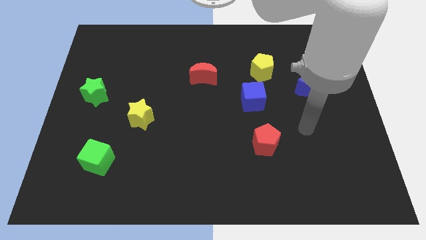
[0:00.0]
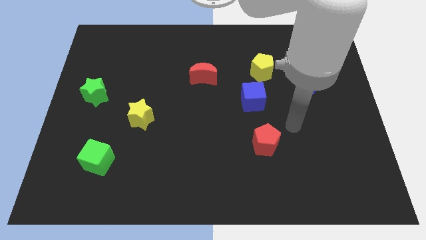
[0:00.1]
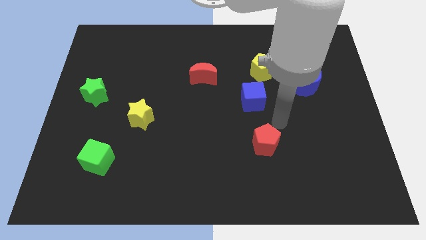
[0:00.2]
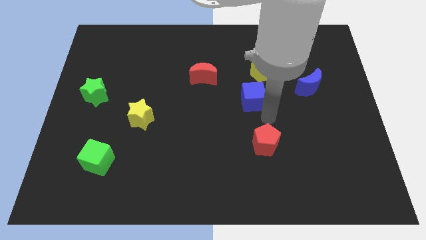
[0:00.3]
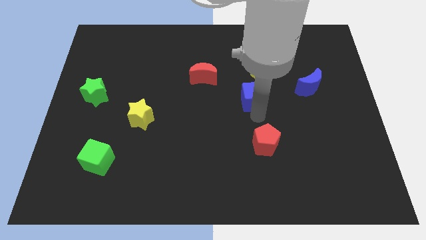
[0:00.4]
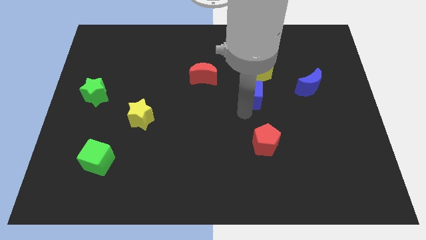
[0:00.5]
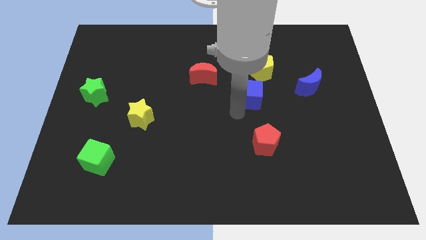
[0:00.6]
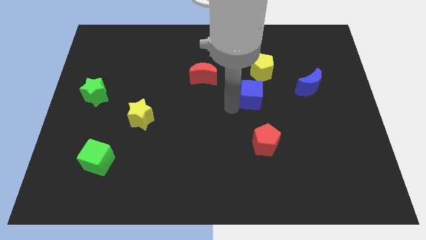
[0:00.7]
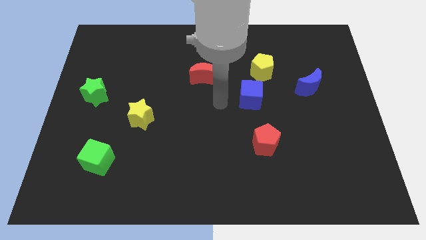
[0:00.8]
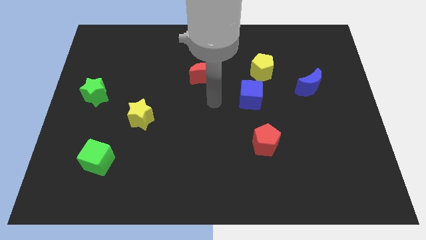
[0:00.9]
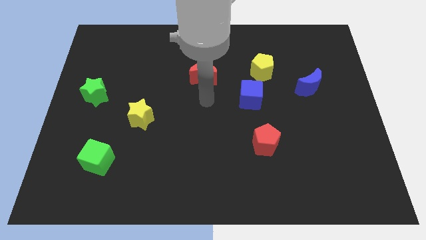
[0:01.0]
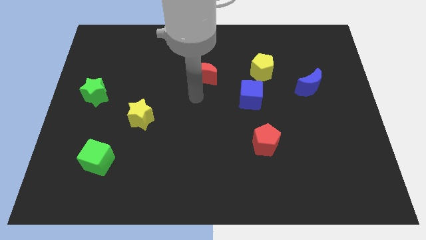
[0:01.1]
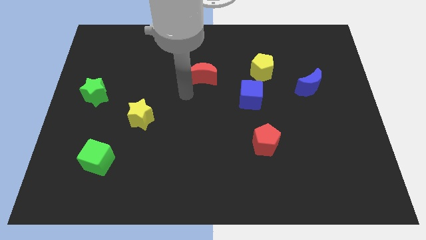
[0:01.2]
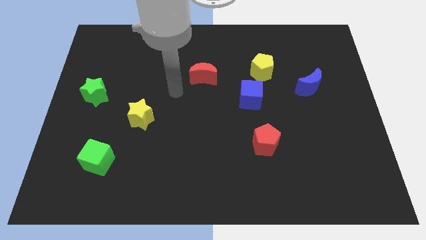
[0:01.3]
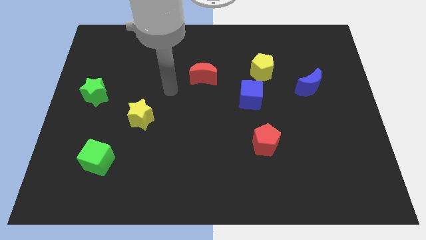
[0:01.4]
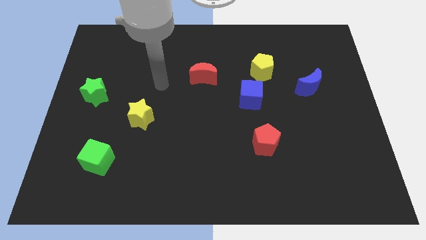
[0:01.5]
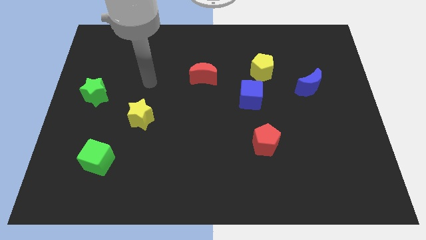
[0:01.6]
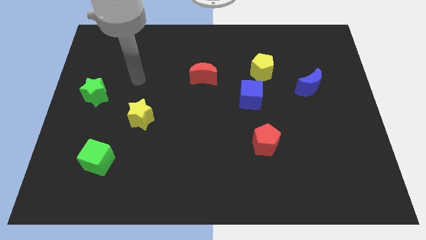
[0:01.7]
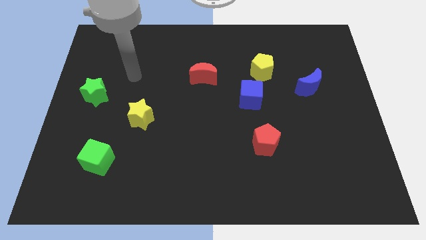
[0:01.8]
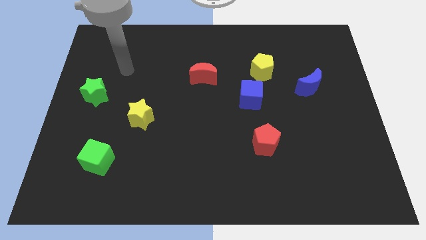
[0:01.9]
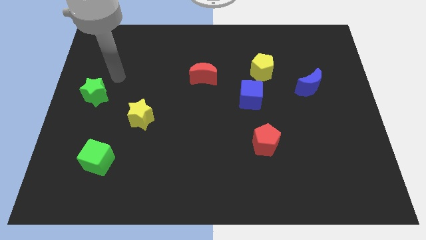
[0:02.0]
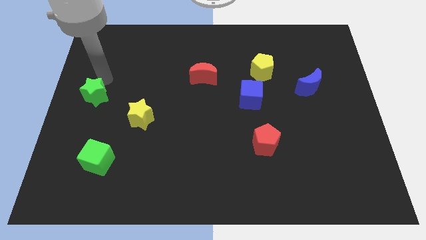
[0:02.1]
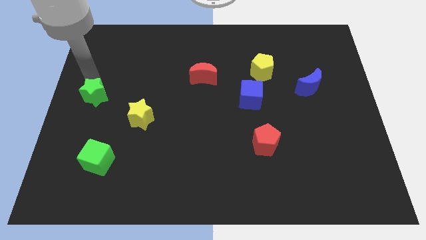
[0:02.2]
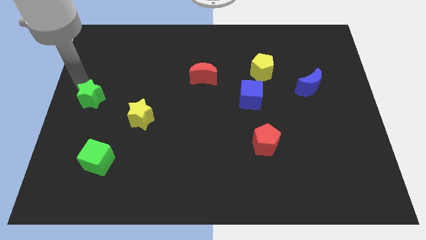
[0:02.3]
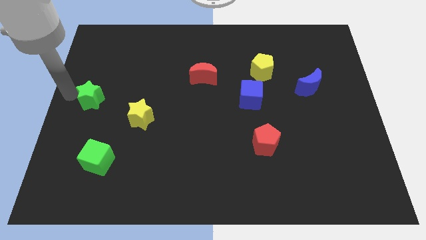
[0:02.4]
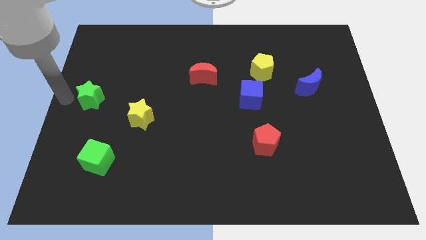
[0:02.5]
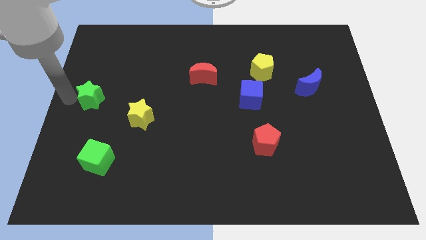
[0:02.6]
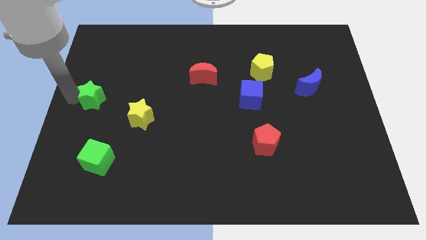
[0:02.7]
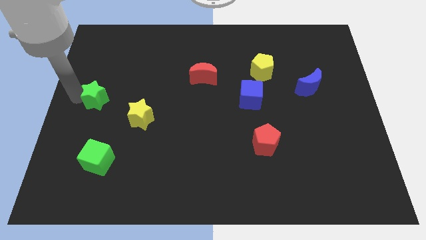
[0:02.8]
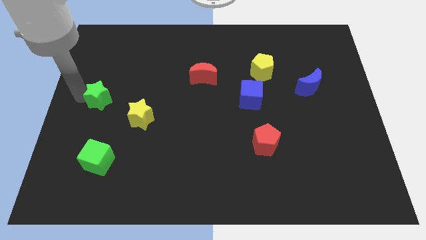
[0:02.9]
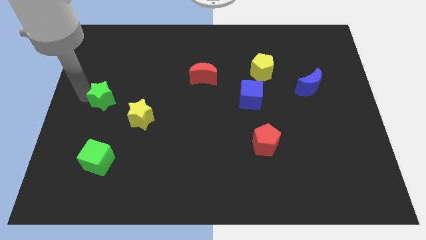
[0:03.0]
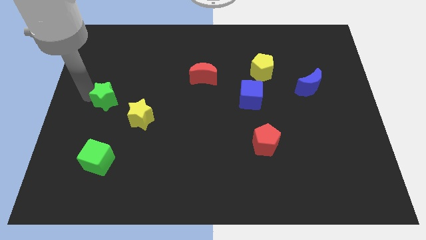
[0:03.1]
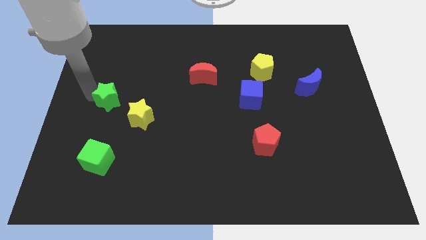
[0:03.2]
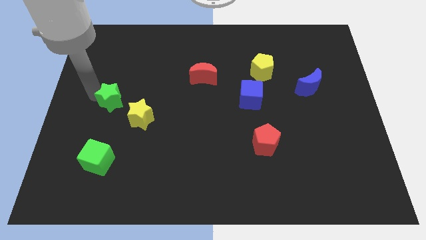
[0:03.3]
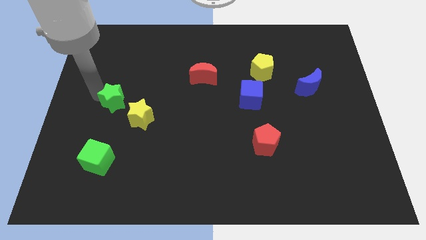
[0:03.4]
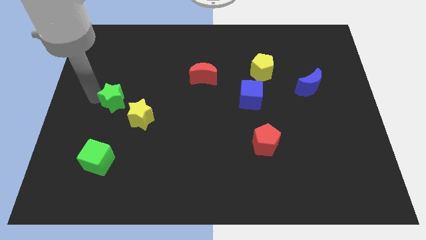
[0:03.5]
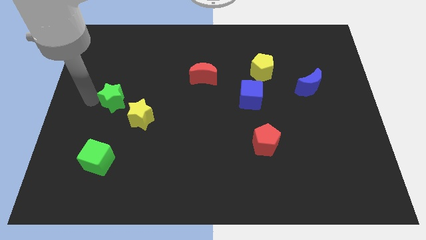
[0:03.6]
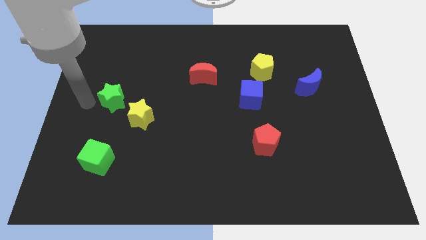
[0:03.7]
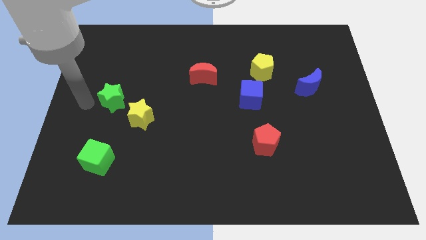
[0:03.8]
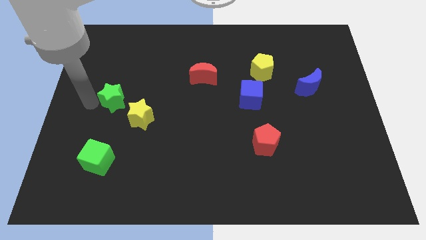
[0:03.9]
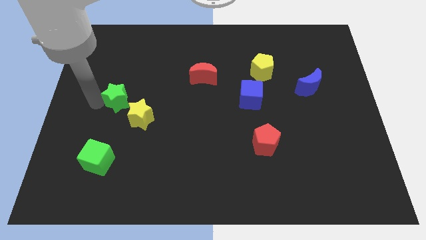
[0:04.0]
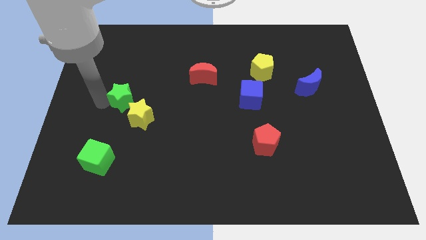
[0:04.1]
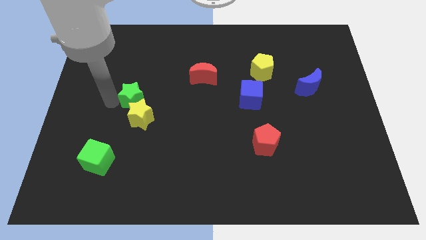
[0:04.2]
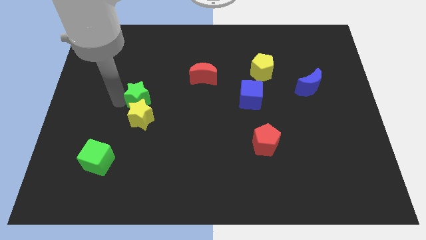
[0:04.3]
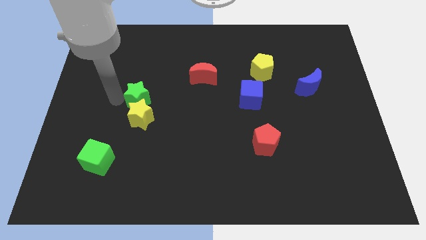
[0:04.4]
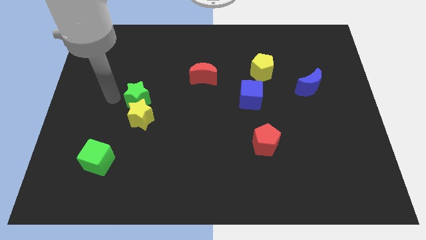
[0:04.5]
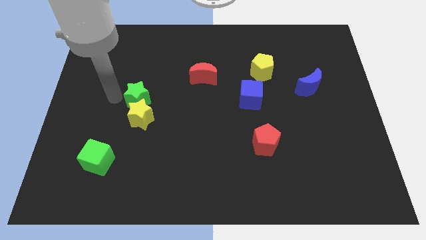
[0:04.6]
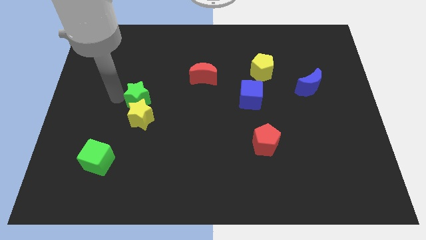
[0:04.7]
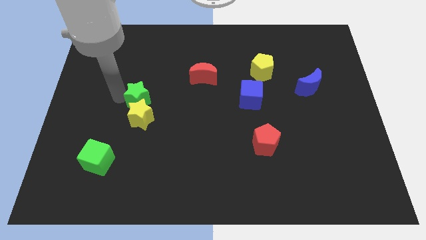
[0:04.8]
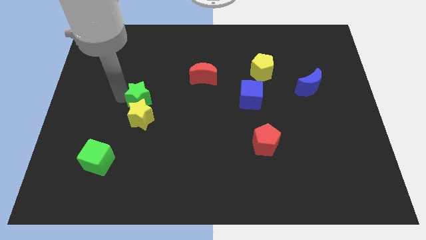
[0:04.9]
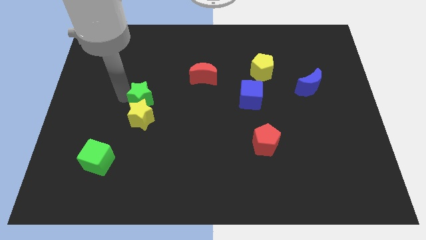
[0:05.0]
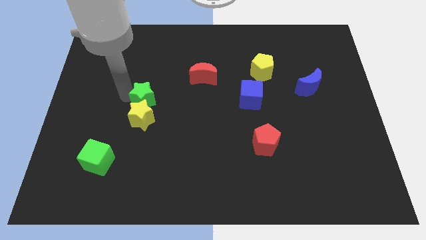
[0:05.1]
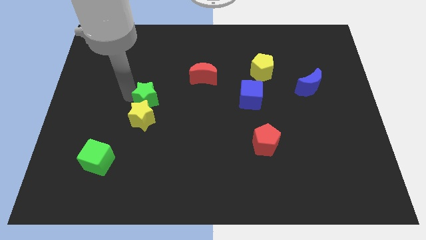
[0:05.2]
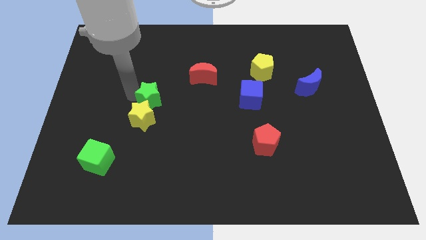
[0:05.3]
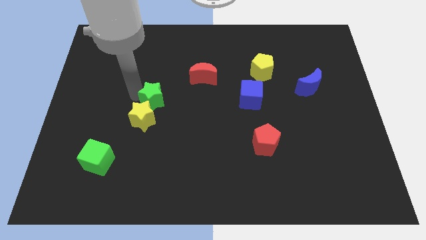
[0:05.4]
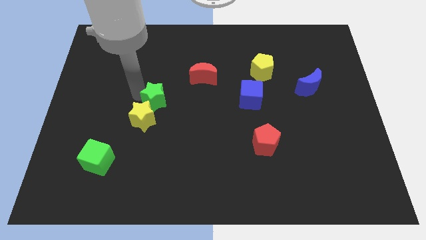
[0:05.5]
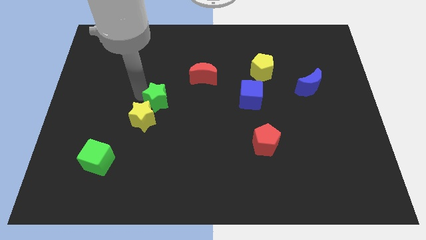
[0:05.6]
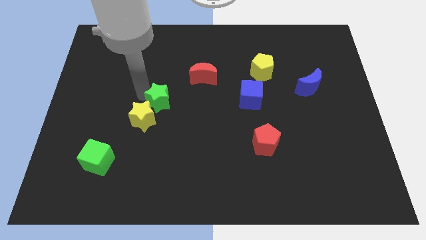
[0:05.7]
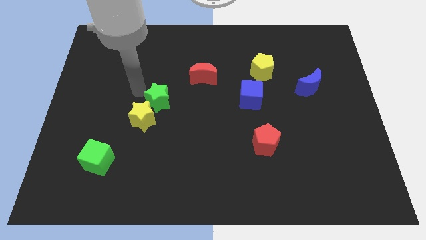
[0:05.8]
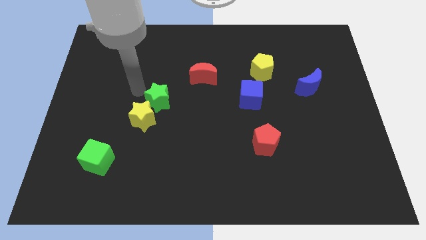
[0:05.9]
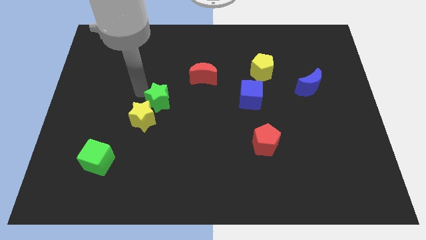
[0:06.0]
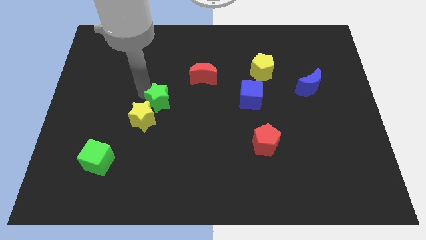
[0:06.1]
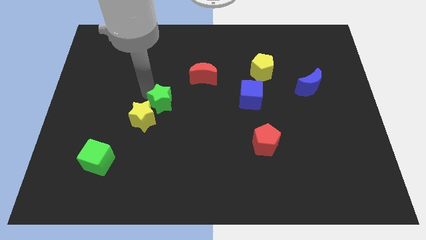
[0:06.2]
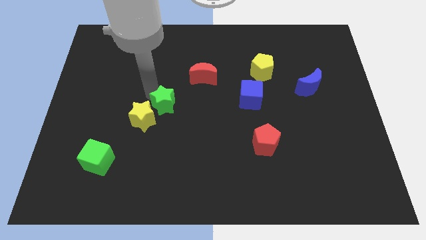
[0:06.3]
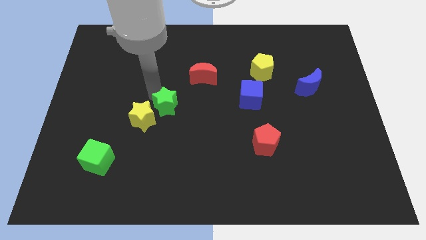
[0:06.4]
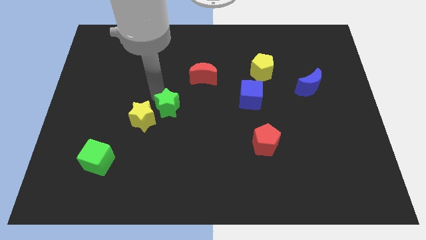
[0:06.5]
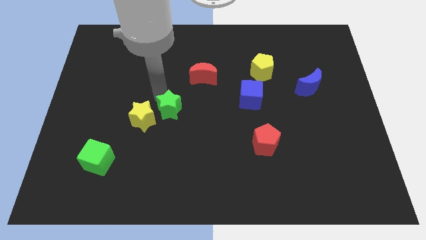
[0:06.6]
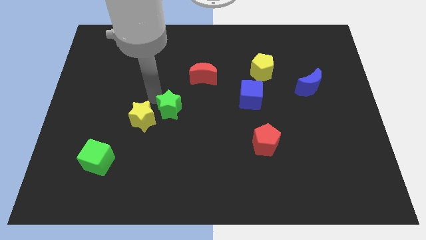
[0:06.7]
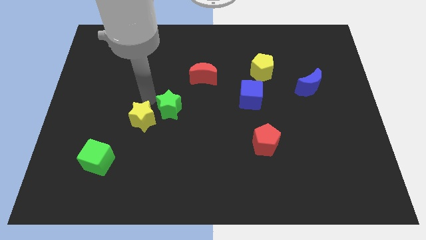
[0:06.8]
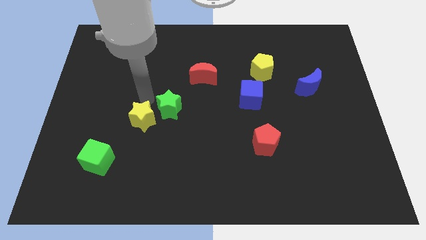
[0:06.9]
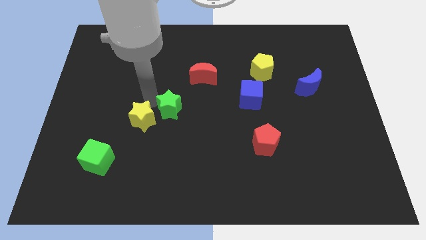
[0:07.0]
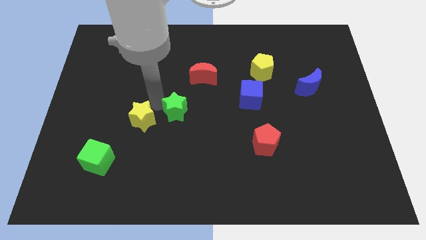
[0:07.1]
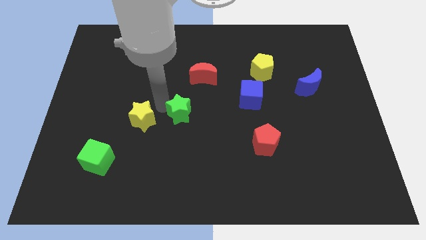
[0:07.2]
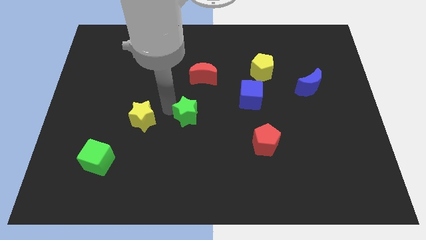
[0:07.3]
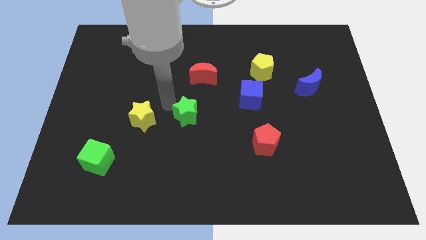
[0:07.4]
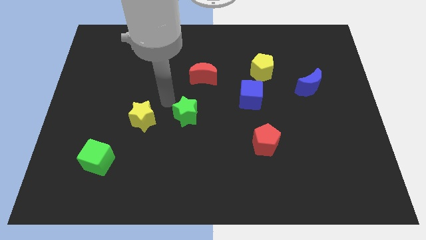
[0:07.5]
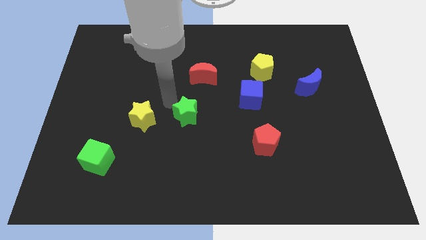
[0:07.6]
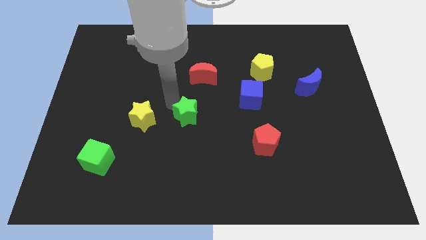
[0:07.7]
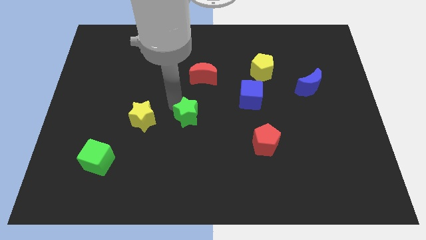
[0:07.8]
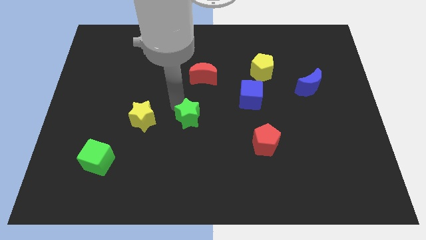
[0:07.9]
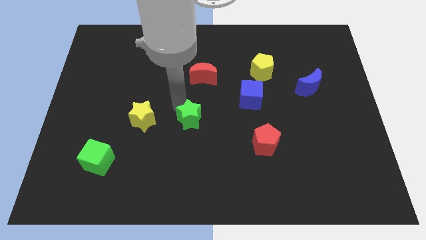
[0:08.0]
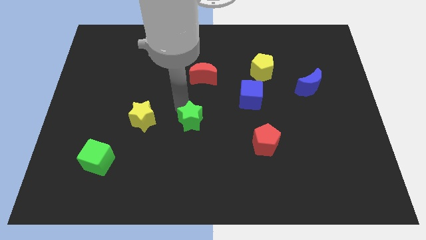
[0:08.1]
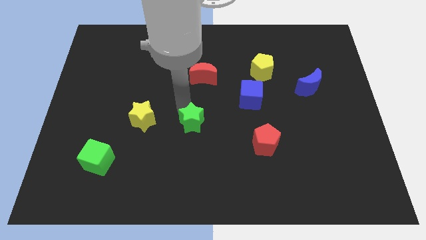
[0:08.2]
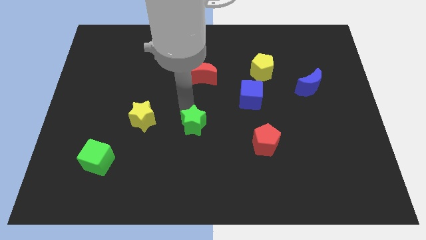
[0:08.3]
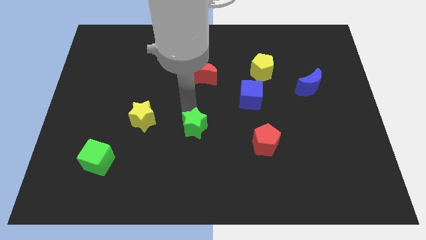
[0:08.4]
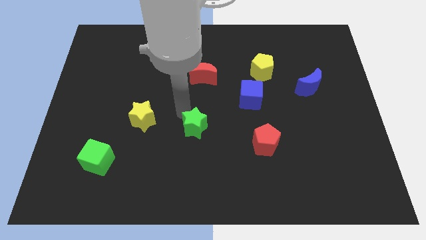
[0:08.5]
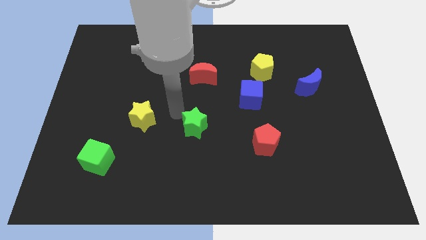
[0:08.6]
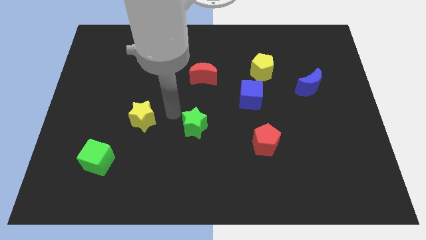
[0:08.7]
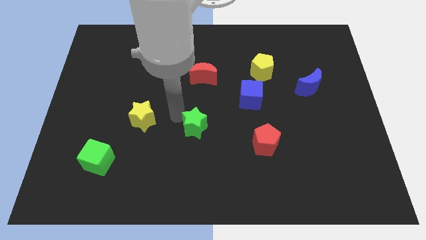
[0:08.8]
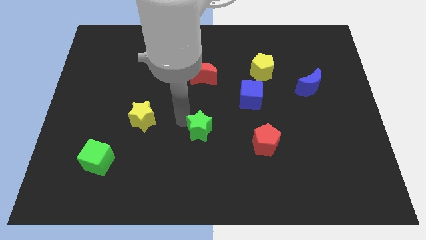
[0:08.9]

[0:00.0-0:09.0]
move the green star just left of the red pentagon
